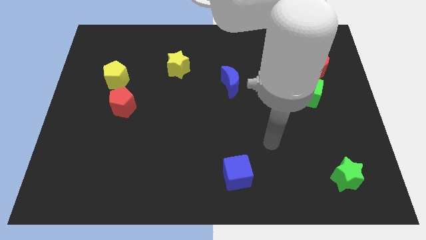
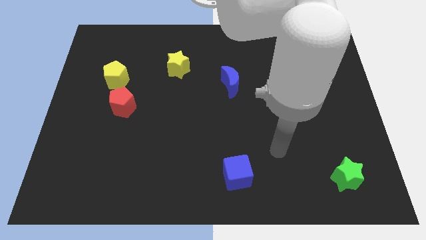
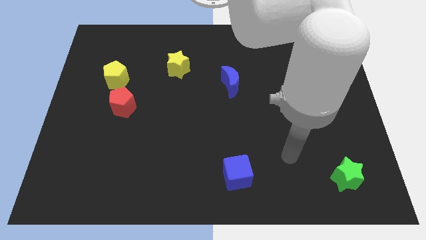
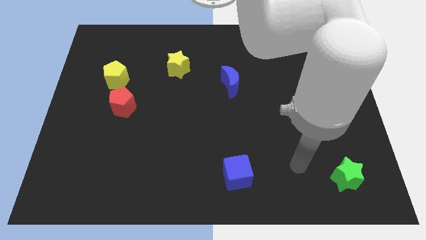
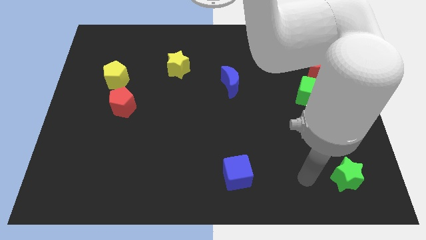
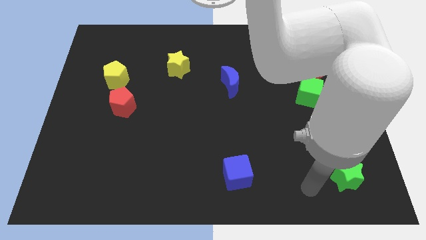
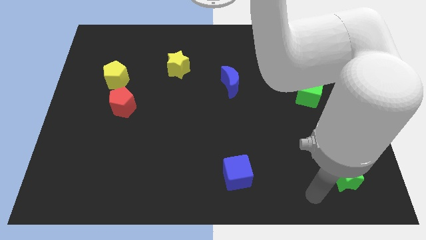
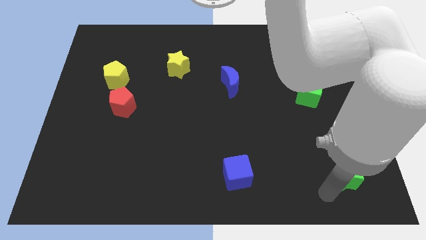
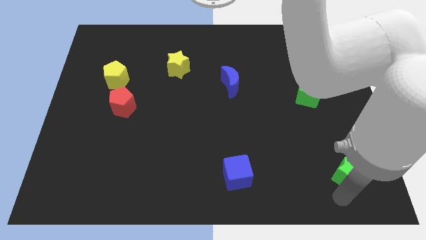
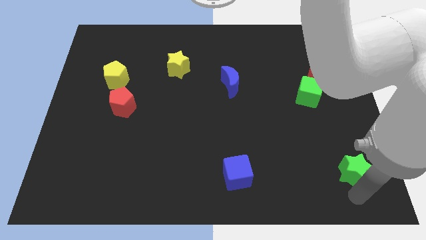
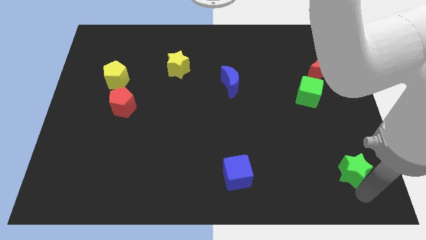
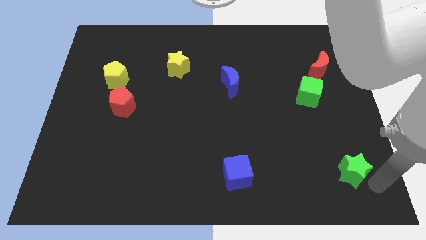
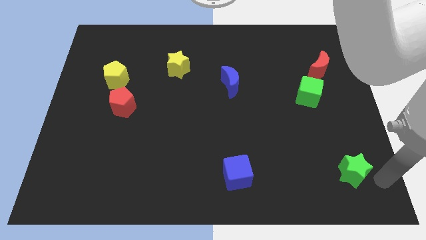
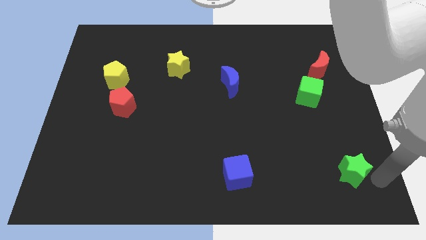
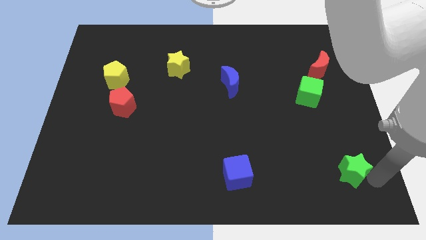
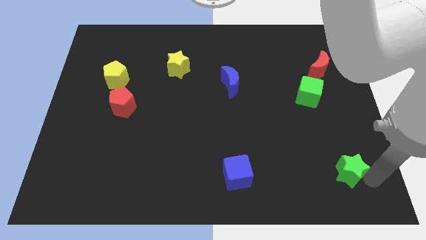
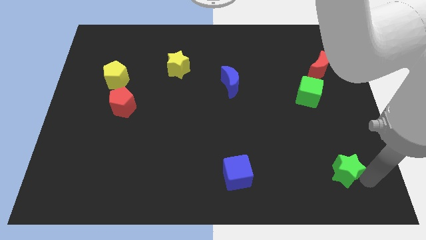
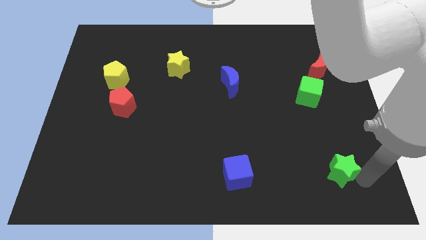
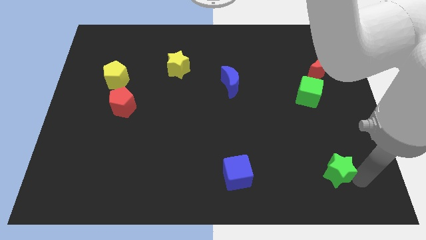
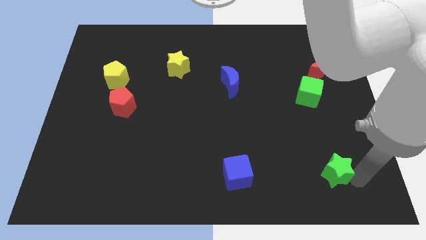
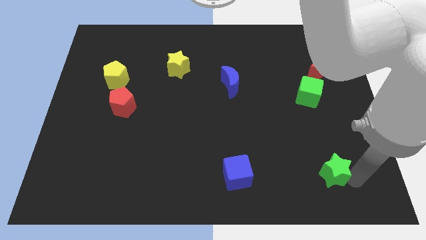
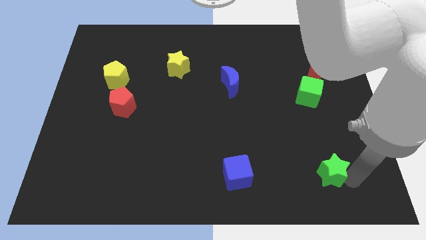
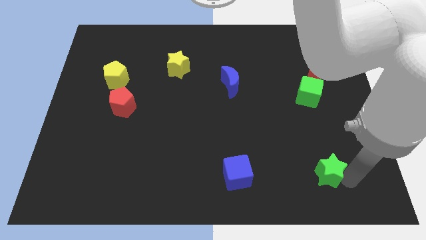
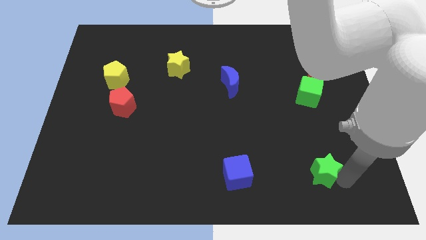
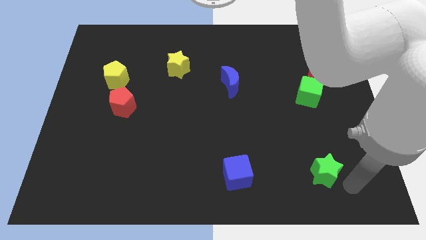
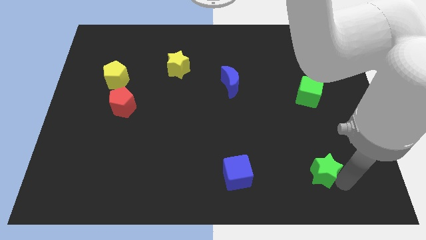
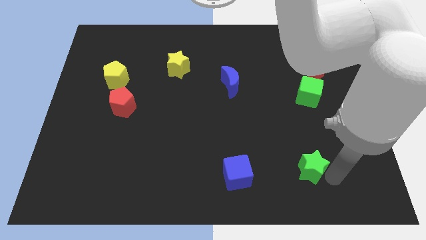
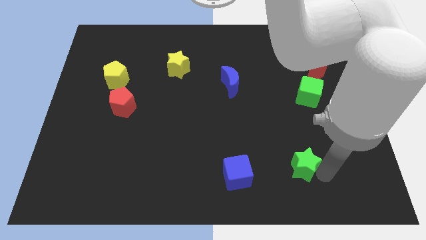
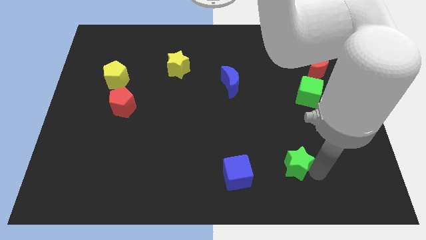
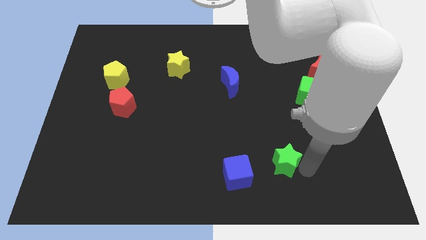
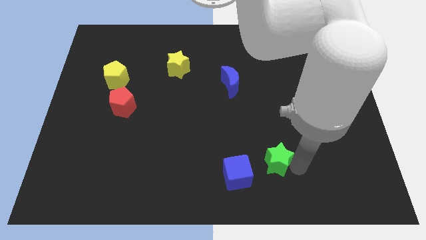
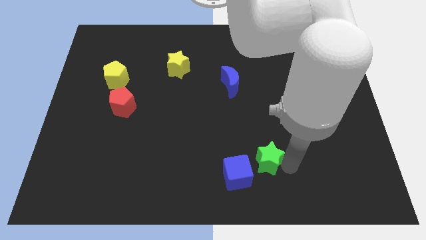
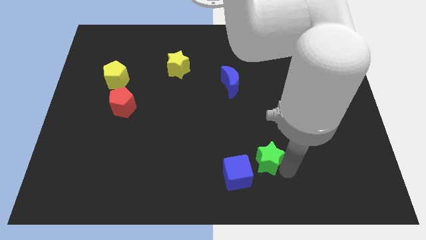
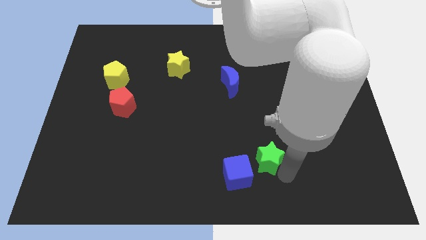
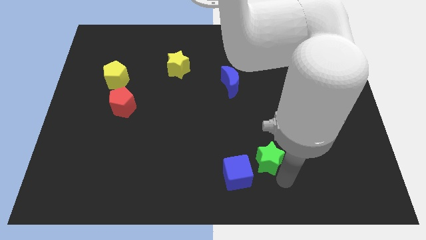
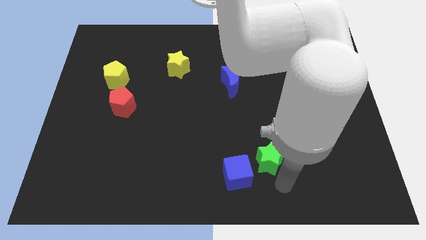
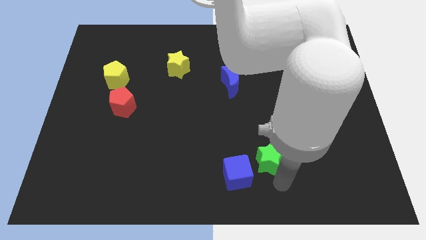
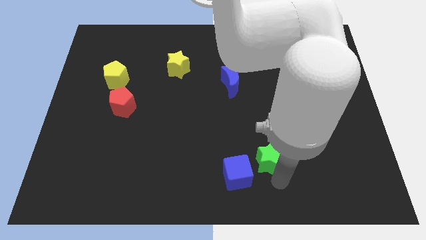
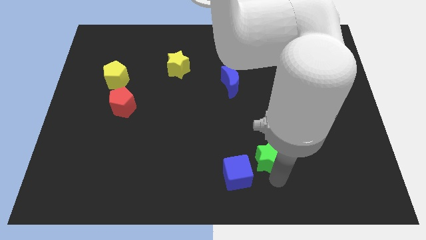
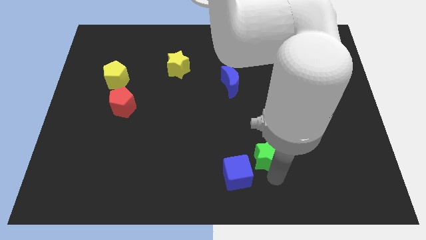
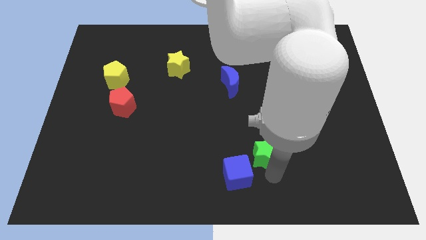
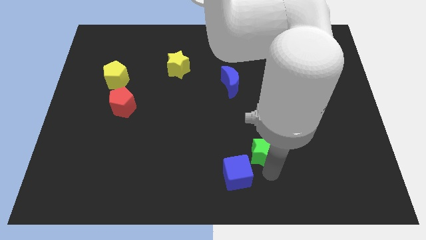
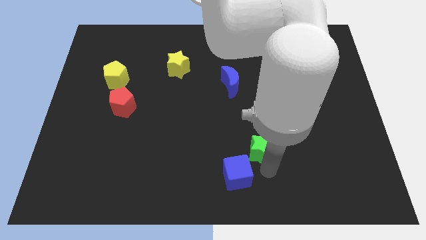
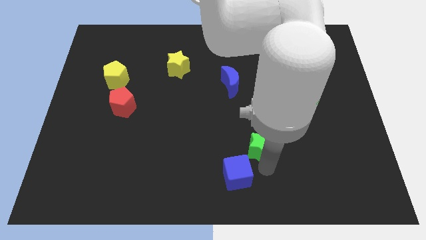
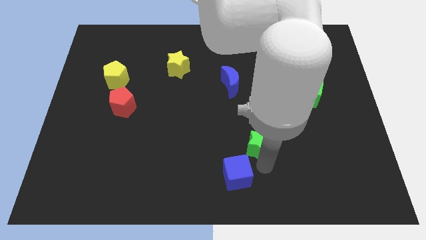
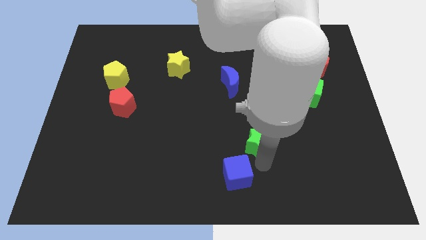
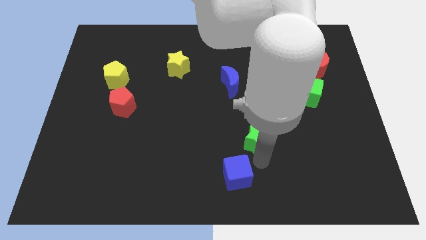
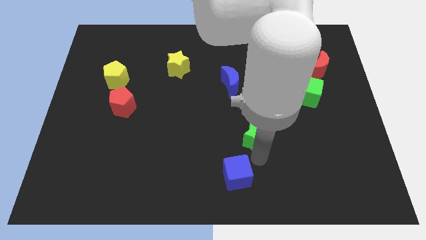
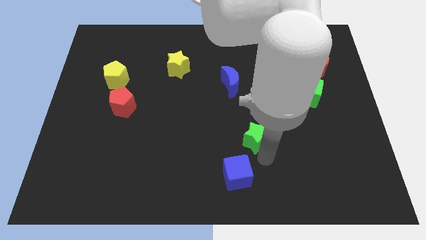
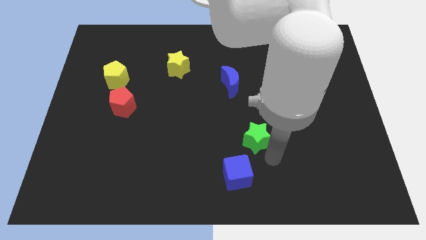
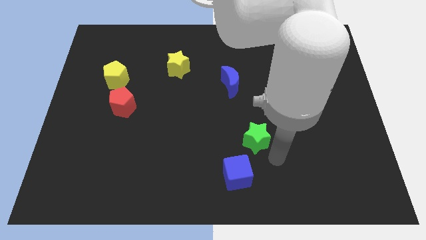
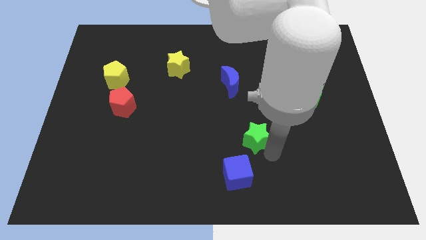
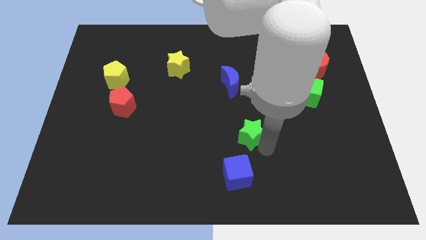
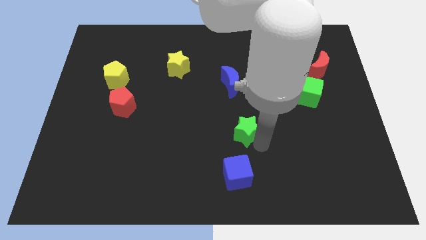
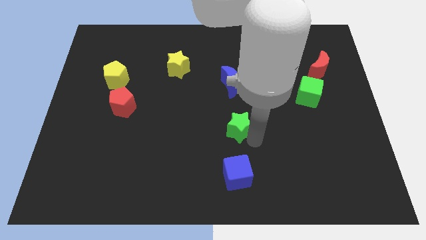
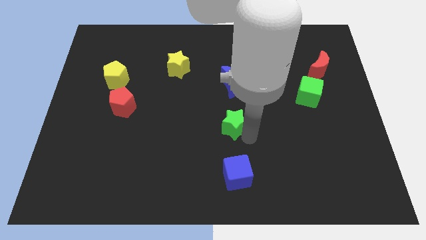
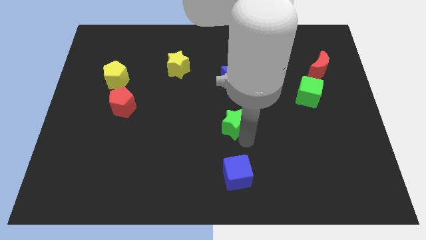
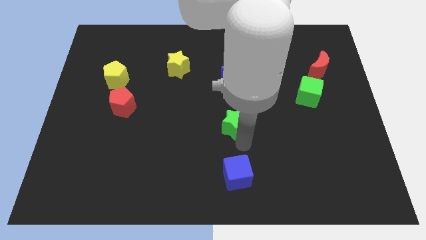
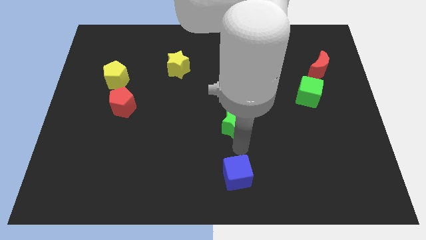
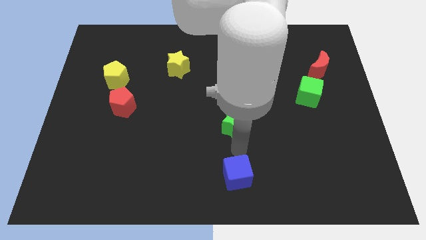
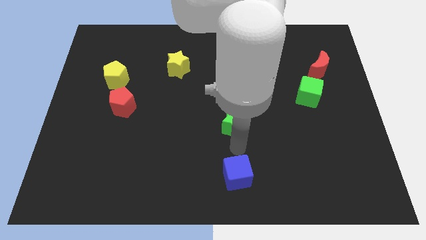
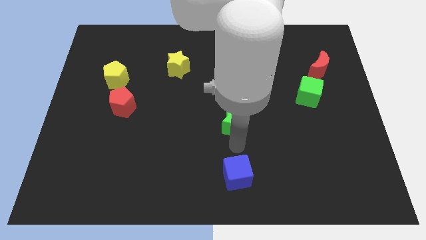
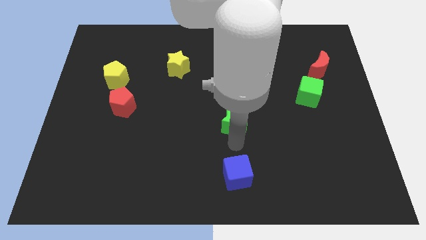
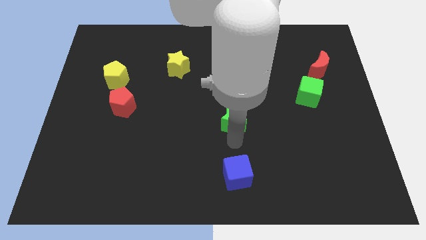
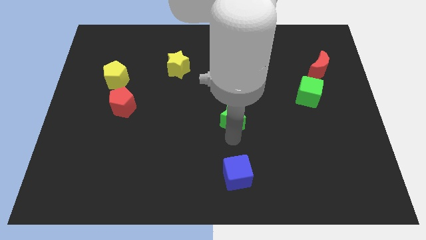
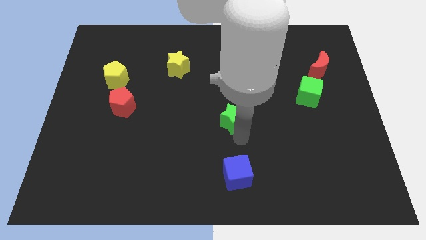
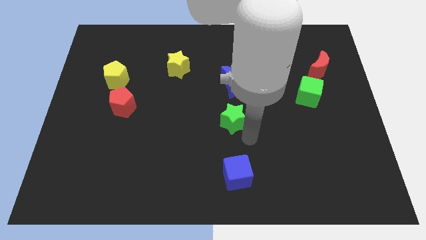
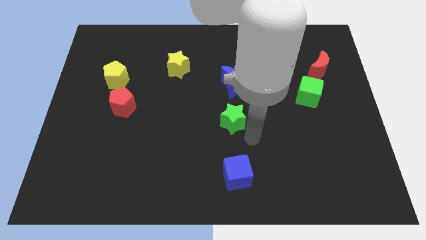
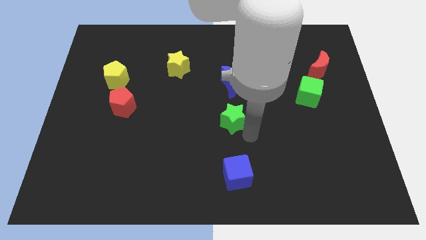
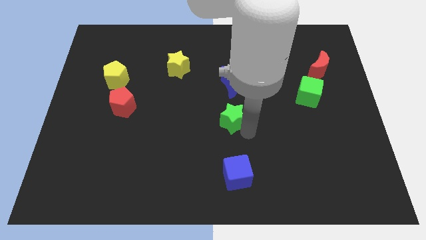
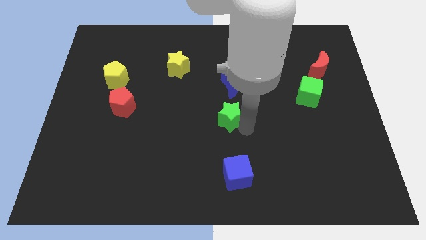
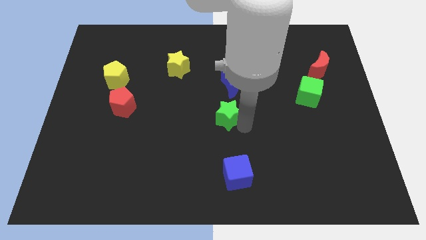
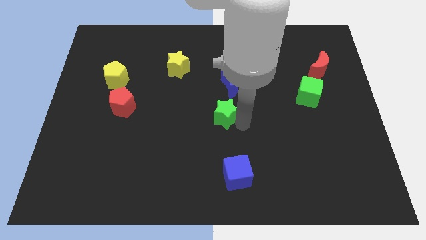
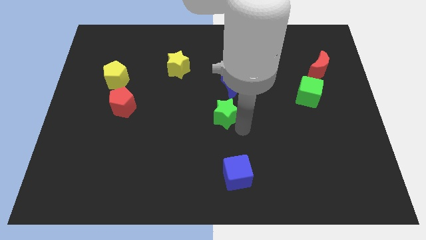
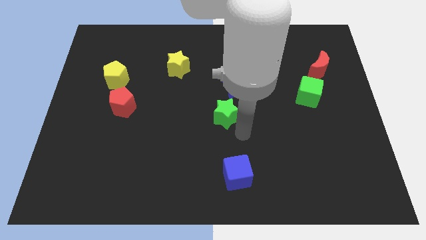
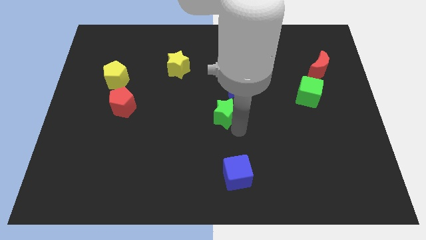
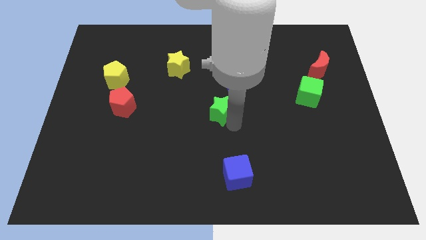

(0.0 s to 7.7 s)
slide the green star diagonally down and to the left of the blue moon
